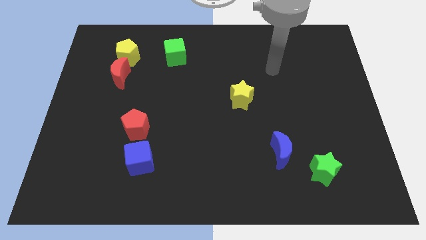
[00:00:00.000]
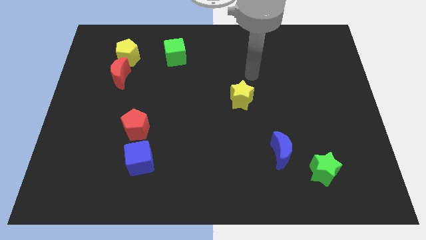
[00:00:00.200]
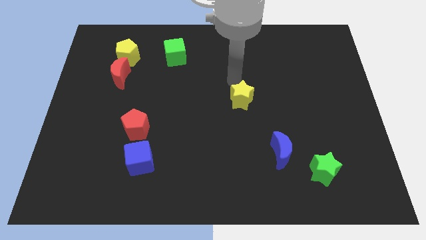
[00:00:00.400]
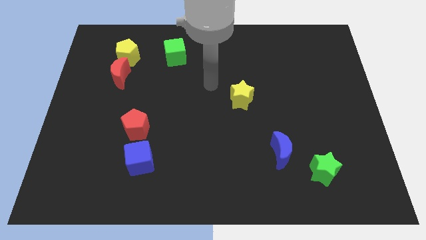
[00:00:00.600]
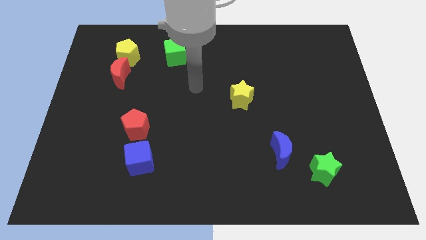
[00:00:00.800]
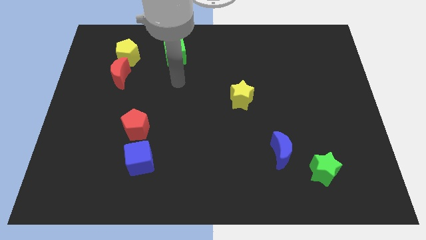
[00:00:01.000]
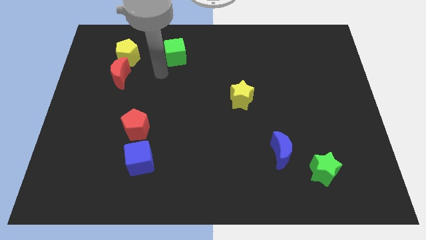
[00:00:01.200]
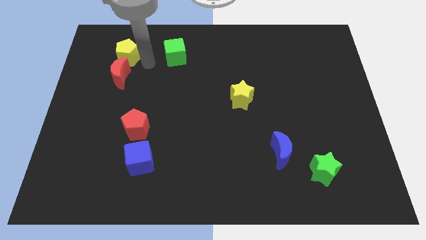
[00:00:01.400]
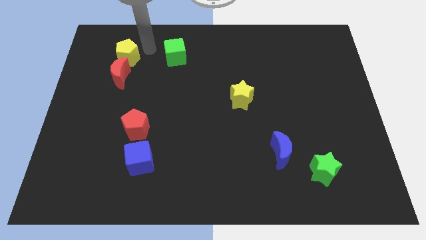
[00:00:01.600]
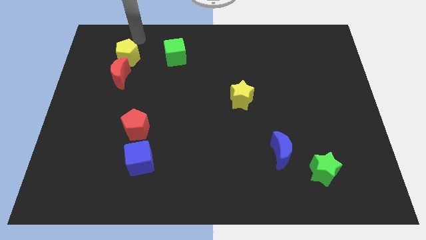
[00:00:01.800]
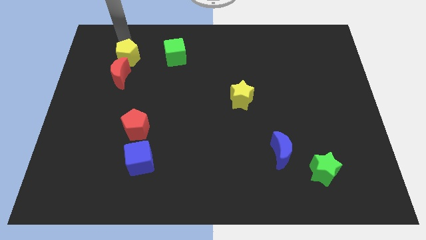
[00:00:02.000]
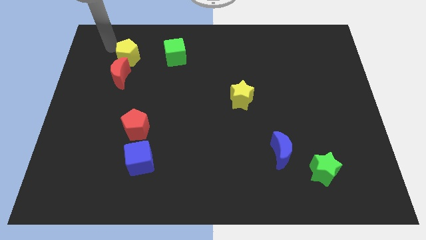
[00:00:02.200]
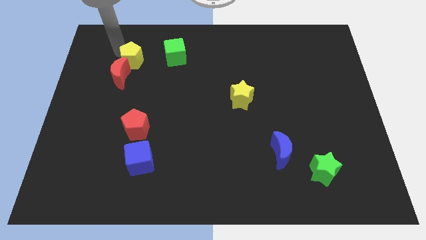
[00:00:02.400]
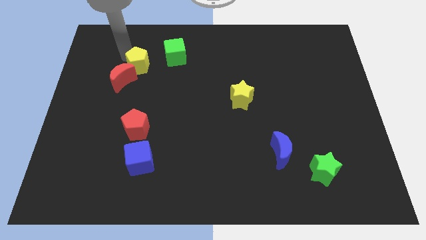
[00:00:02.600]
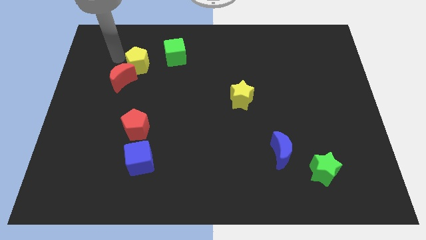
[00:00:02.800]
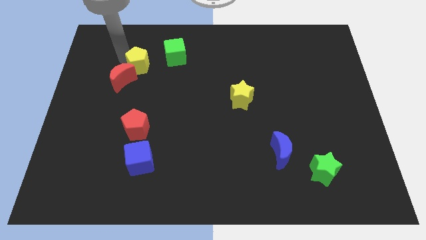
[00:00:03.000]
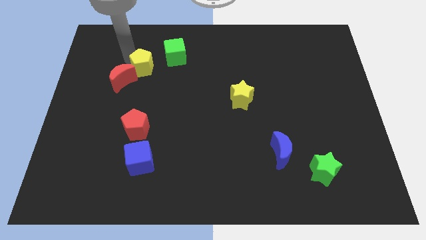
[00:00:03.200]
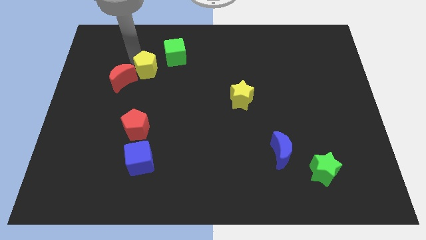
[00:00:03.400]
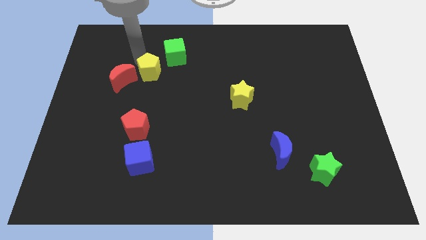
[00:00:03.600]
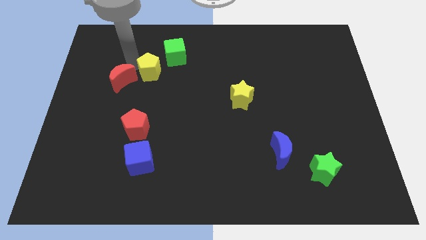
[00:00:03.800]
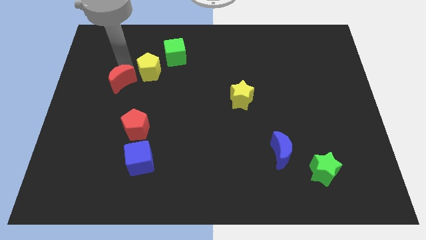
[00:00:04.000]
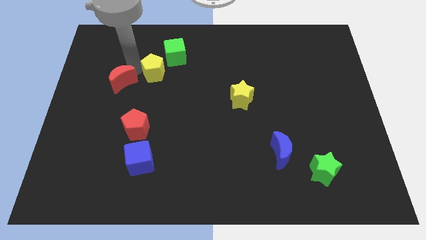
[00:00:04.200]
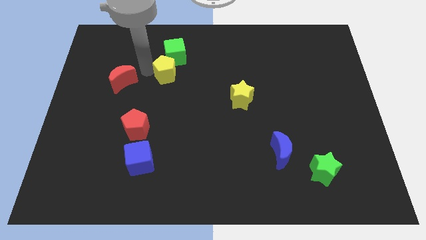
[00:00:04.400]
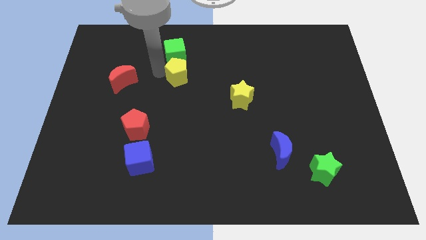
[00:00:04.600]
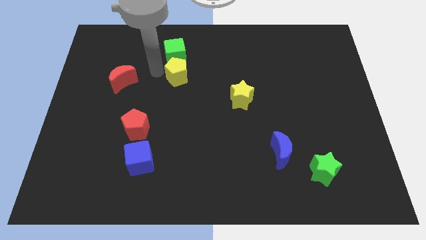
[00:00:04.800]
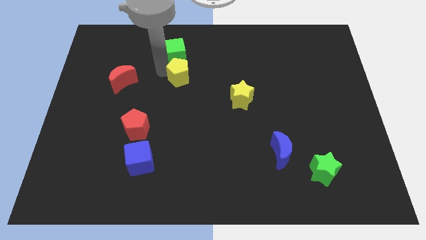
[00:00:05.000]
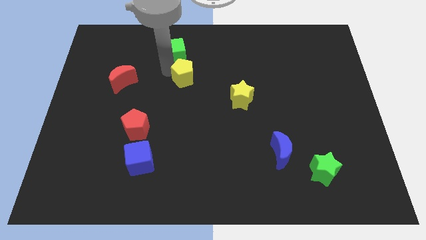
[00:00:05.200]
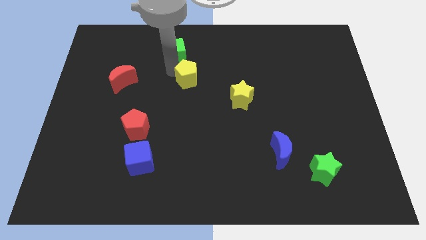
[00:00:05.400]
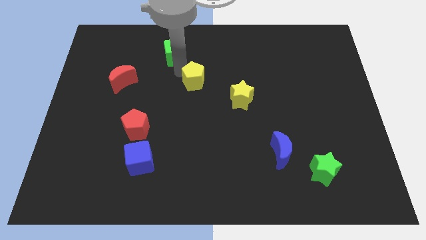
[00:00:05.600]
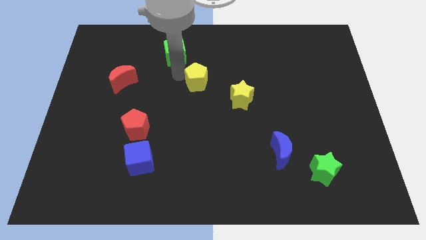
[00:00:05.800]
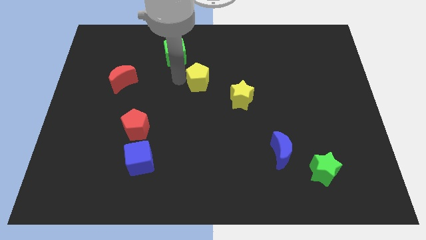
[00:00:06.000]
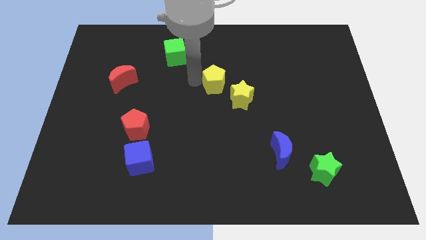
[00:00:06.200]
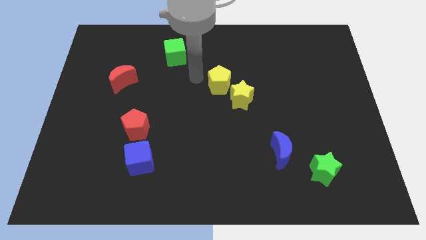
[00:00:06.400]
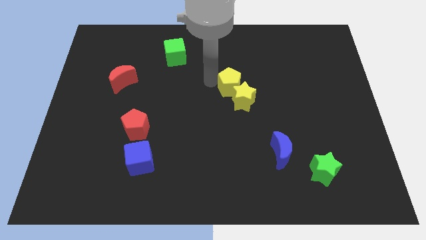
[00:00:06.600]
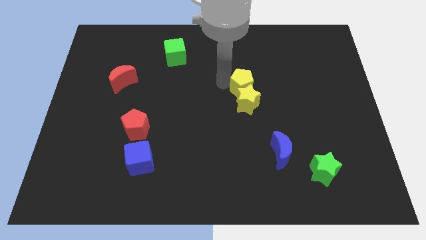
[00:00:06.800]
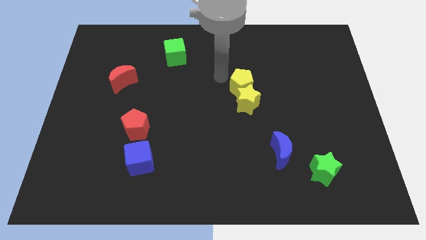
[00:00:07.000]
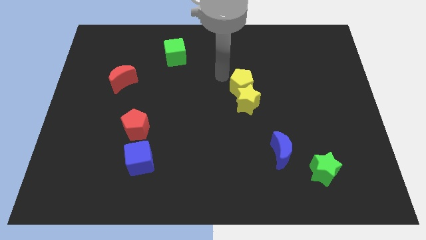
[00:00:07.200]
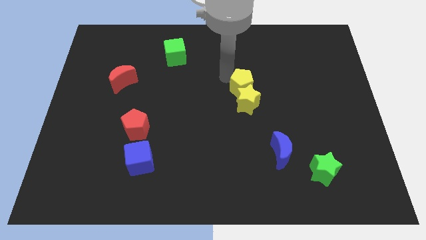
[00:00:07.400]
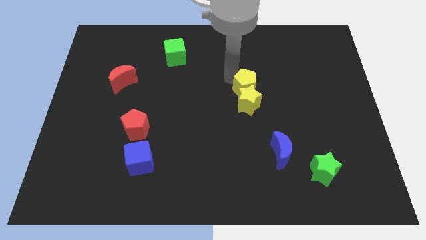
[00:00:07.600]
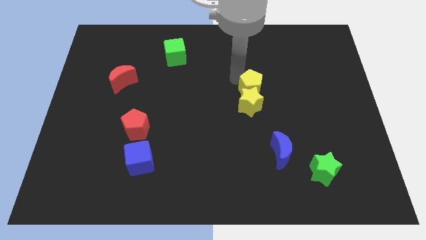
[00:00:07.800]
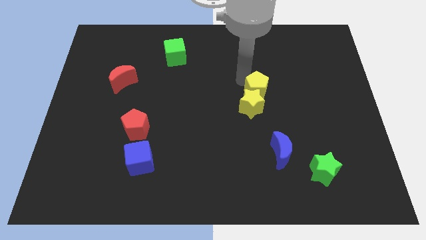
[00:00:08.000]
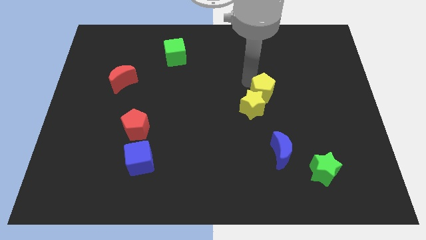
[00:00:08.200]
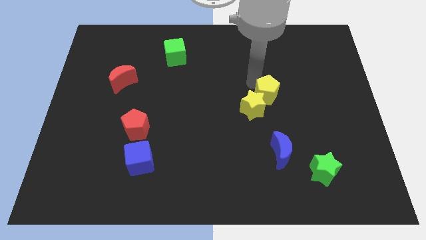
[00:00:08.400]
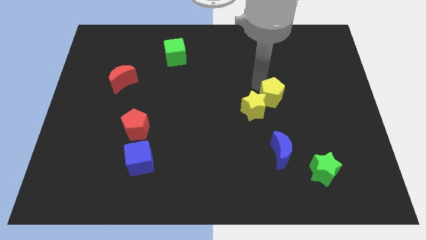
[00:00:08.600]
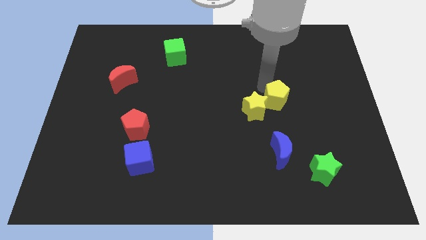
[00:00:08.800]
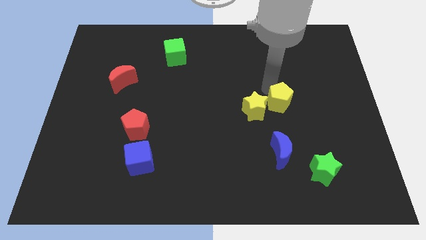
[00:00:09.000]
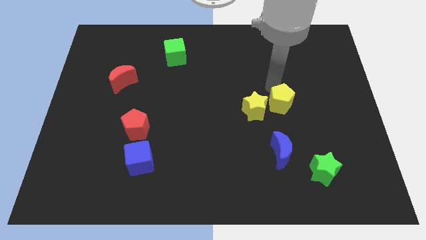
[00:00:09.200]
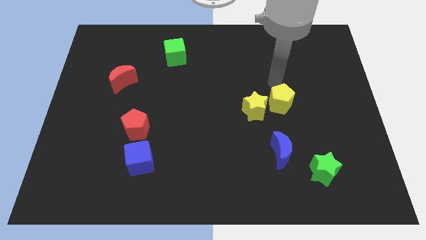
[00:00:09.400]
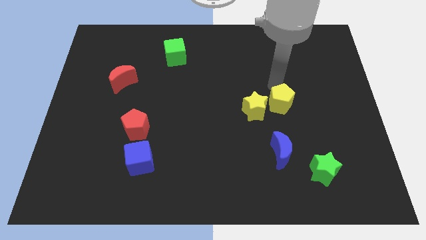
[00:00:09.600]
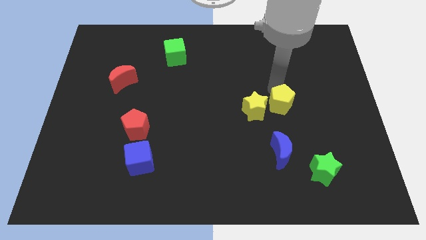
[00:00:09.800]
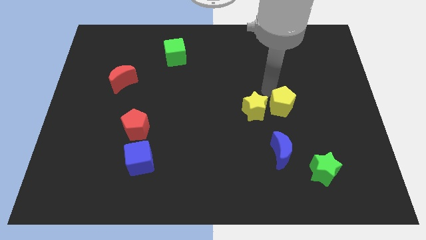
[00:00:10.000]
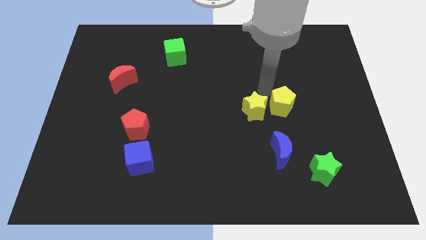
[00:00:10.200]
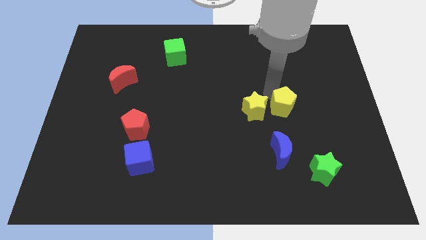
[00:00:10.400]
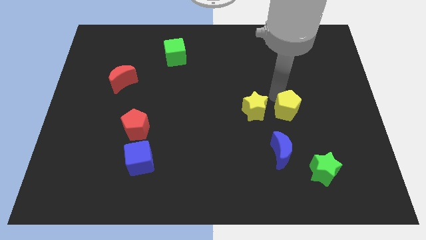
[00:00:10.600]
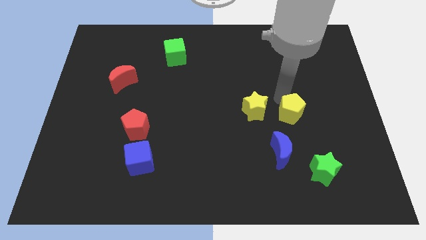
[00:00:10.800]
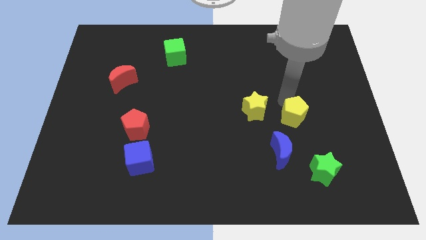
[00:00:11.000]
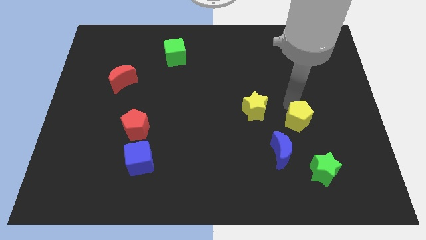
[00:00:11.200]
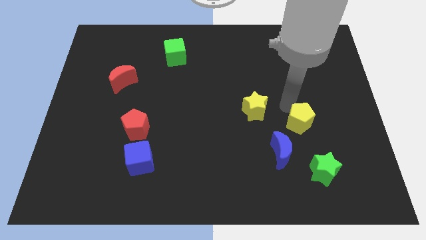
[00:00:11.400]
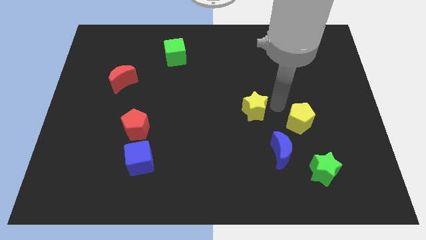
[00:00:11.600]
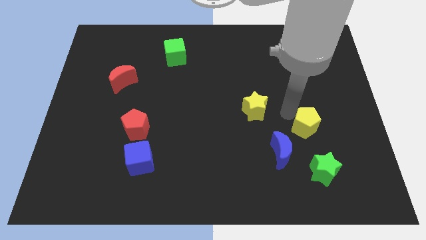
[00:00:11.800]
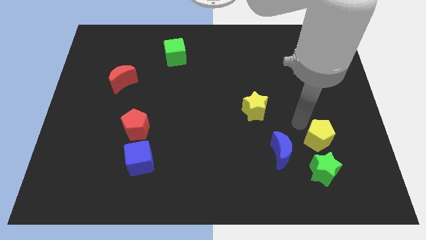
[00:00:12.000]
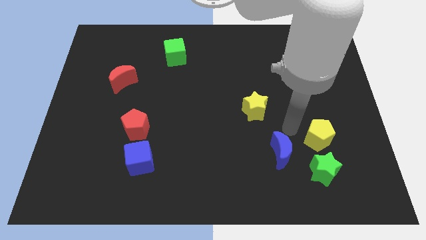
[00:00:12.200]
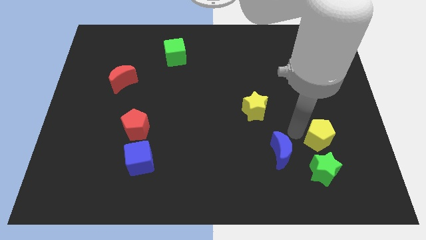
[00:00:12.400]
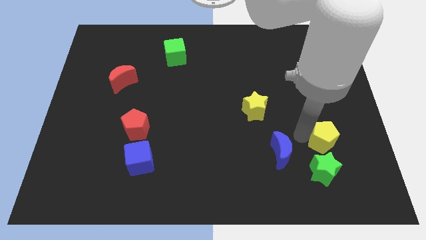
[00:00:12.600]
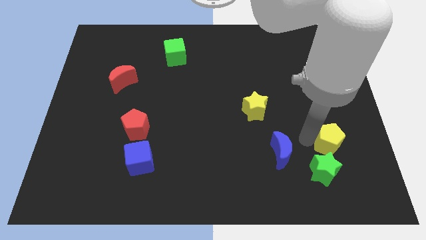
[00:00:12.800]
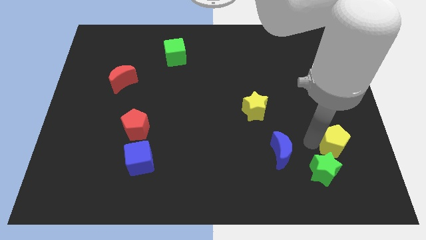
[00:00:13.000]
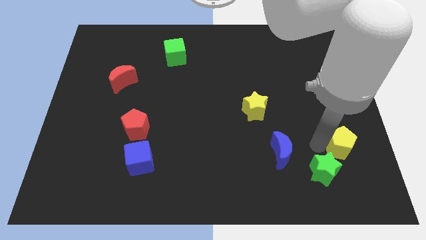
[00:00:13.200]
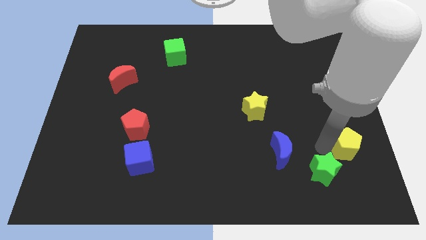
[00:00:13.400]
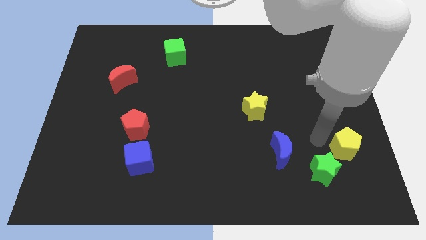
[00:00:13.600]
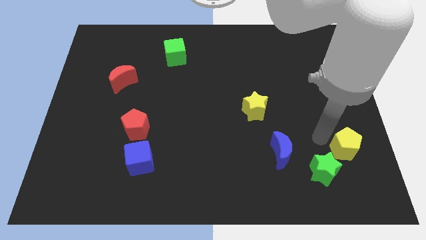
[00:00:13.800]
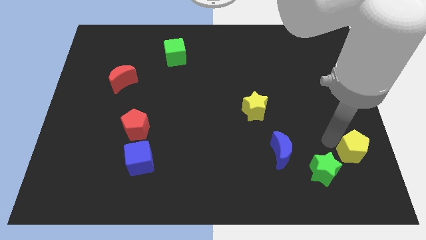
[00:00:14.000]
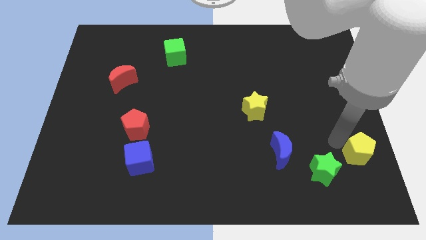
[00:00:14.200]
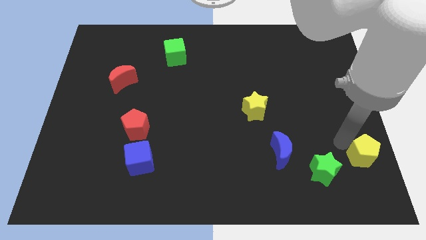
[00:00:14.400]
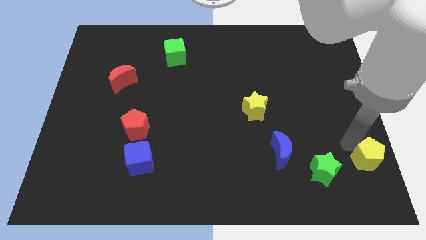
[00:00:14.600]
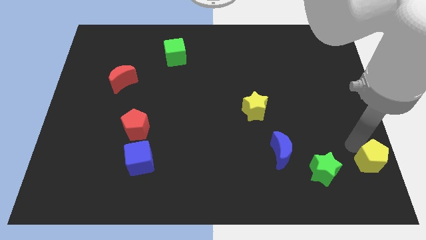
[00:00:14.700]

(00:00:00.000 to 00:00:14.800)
slide the yellow pentagon to the bottom right corner
